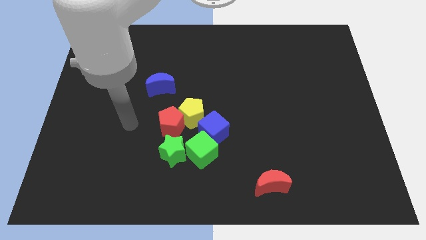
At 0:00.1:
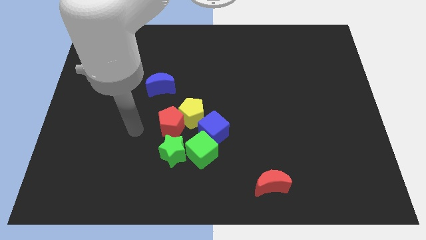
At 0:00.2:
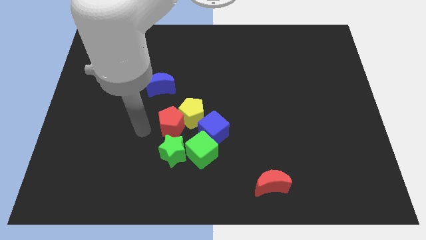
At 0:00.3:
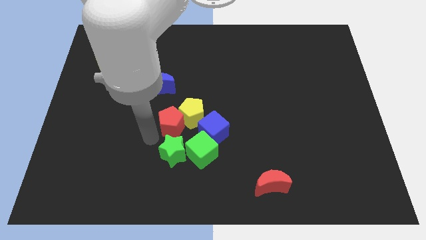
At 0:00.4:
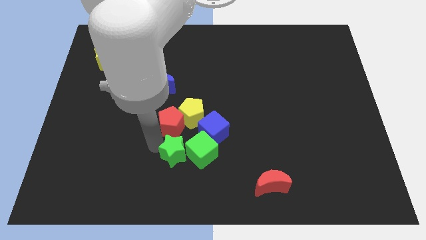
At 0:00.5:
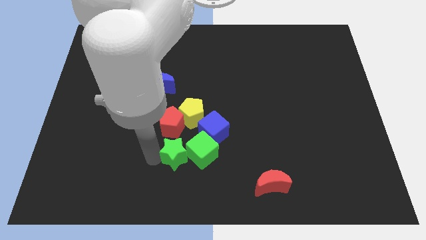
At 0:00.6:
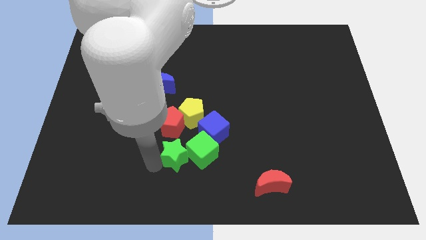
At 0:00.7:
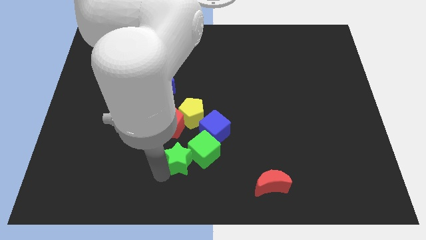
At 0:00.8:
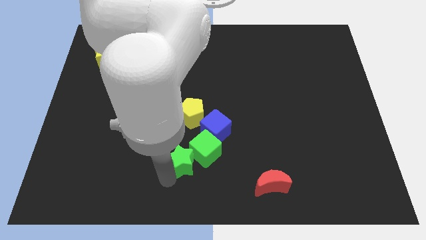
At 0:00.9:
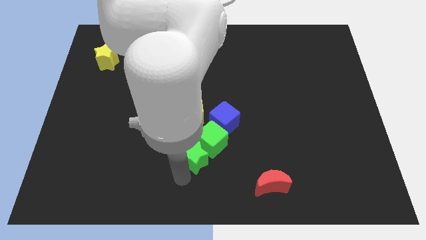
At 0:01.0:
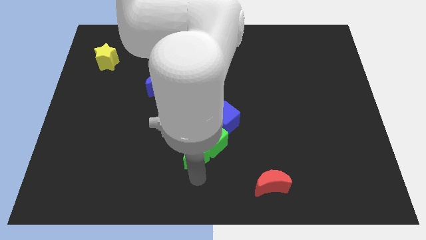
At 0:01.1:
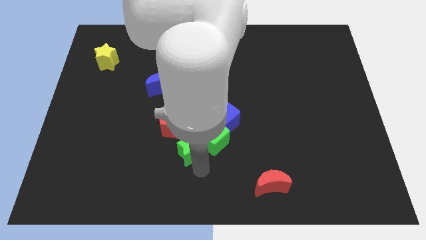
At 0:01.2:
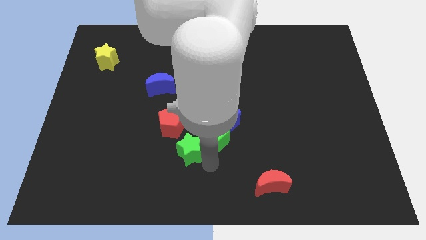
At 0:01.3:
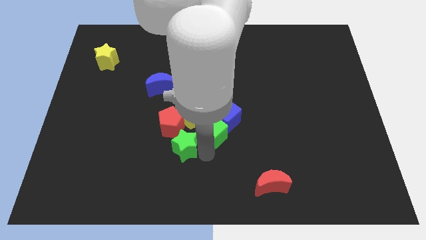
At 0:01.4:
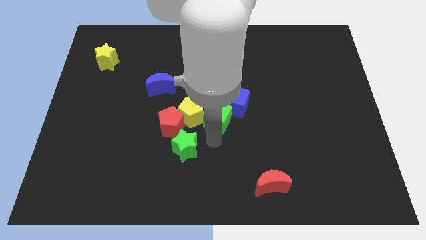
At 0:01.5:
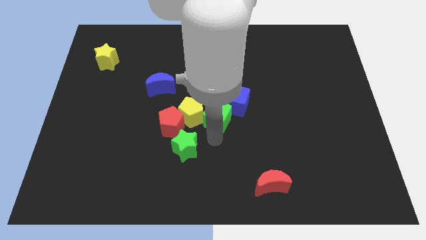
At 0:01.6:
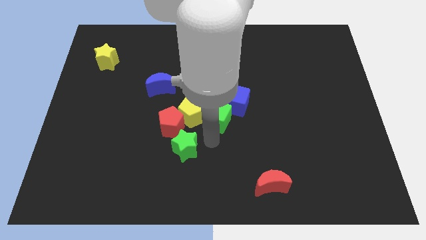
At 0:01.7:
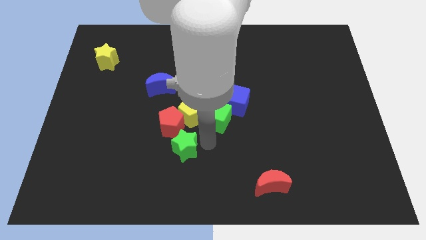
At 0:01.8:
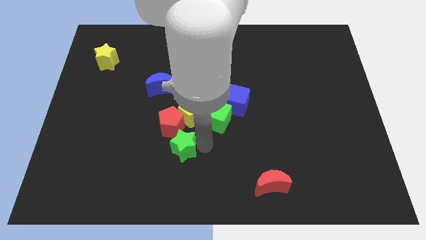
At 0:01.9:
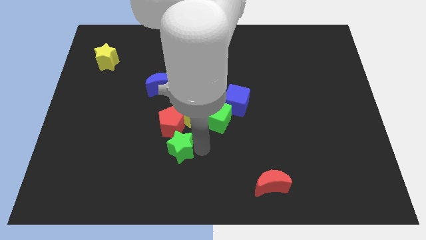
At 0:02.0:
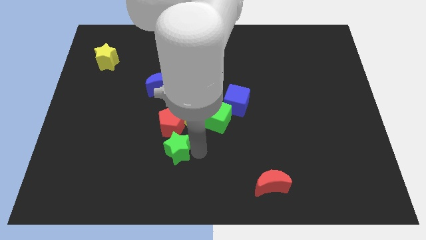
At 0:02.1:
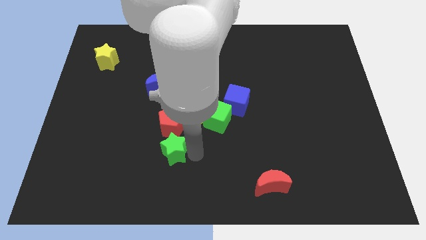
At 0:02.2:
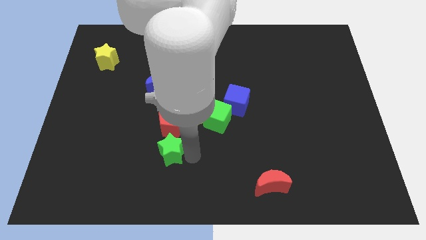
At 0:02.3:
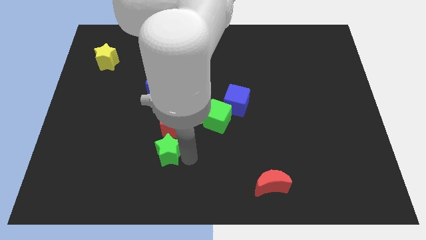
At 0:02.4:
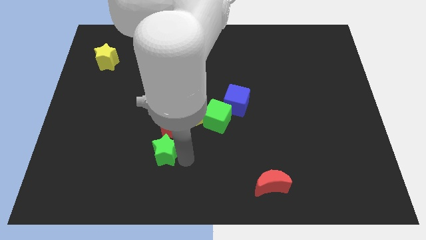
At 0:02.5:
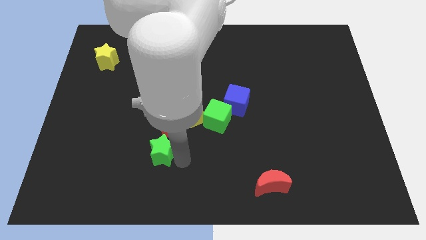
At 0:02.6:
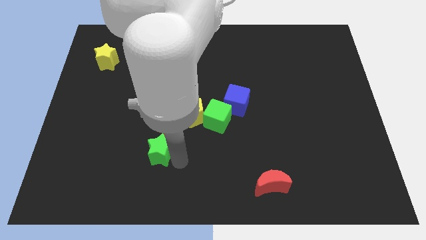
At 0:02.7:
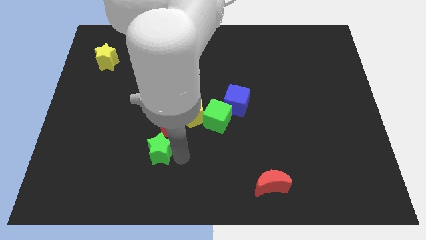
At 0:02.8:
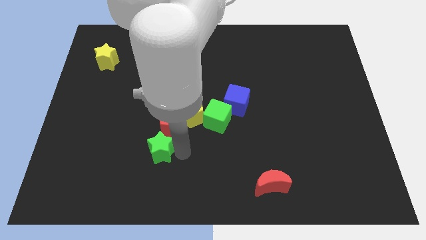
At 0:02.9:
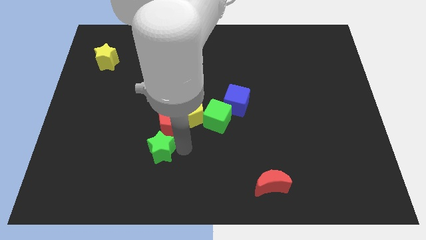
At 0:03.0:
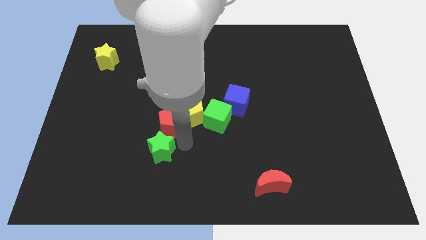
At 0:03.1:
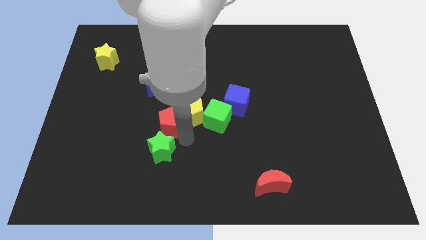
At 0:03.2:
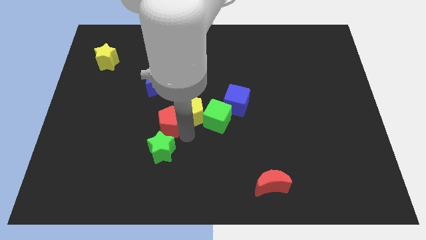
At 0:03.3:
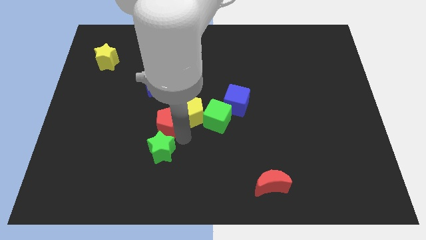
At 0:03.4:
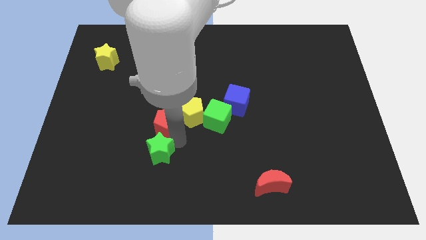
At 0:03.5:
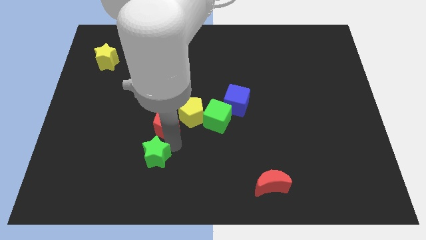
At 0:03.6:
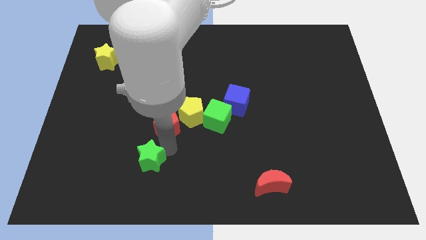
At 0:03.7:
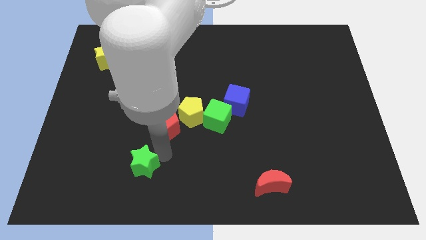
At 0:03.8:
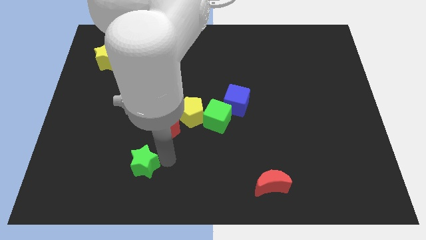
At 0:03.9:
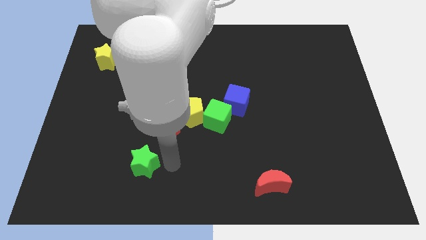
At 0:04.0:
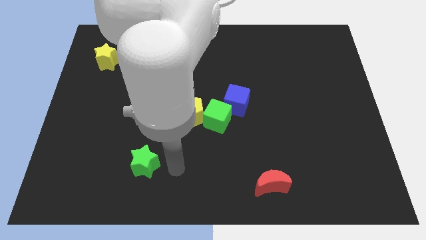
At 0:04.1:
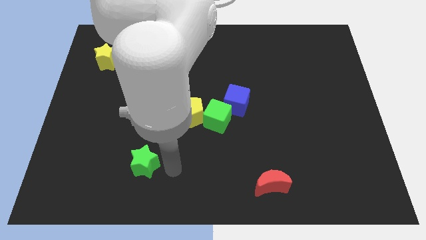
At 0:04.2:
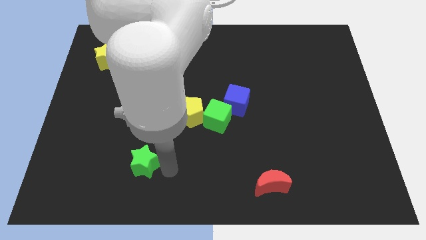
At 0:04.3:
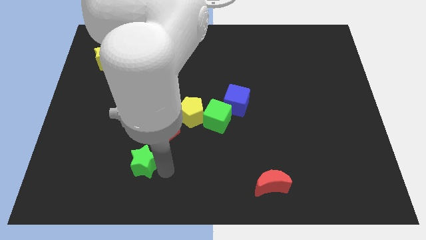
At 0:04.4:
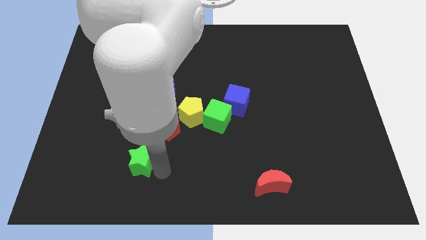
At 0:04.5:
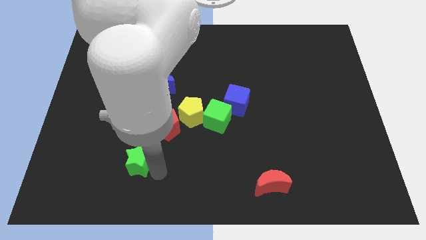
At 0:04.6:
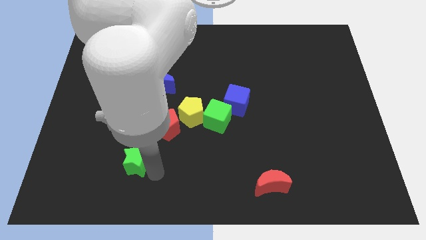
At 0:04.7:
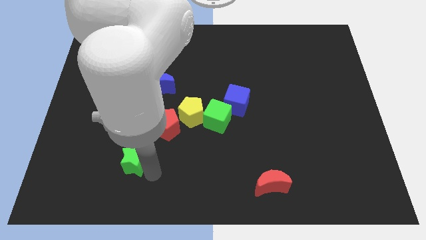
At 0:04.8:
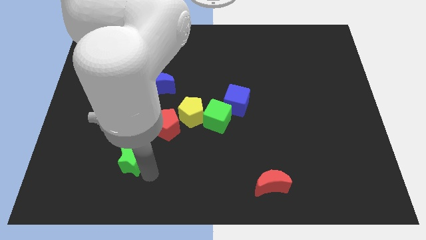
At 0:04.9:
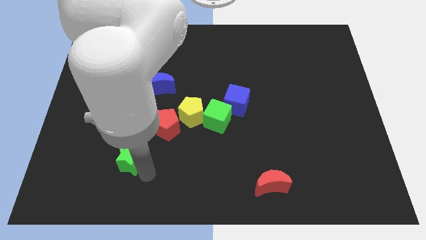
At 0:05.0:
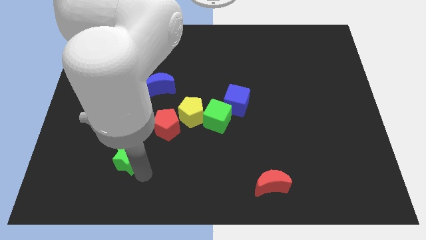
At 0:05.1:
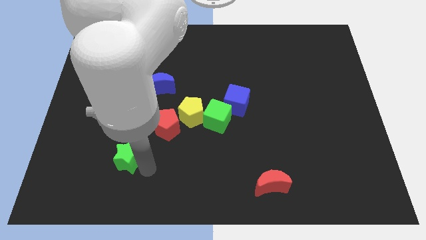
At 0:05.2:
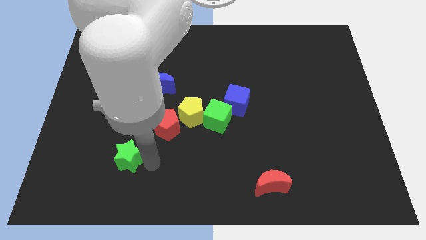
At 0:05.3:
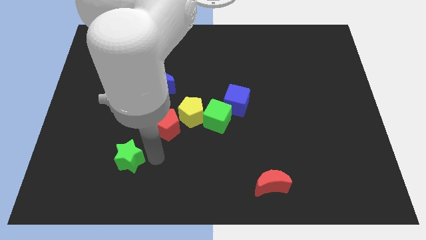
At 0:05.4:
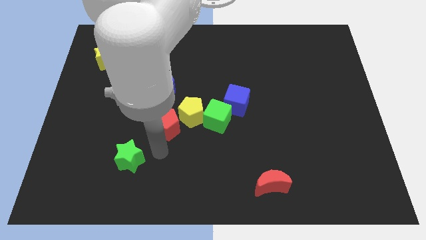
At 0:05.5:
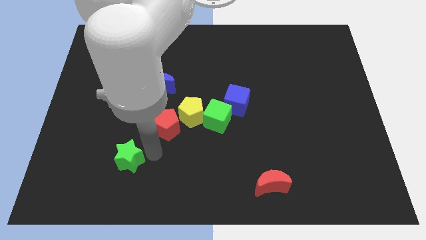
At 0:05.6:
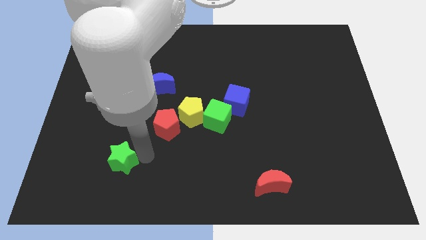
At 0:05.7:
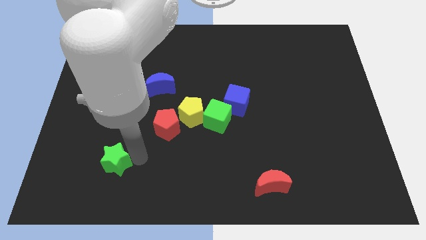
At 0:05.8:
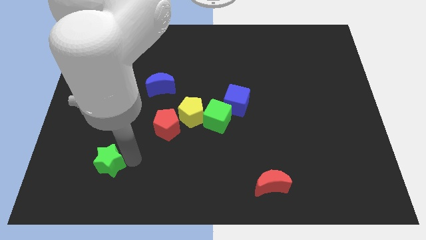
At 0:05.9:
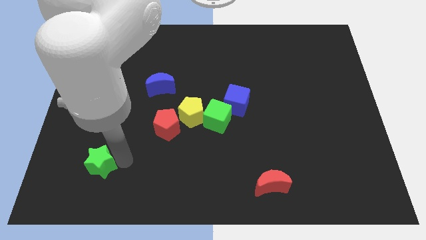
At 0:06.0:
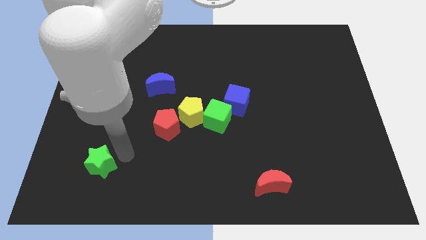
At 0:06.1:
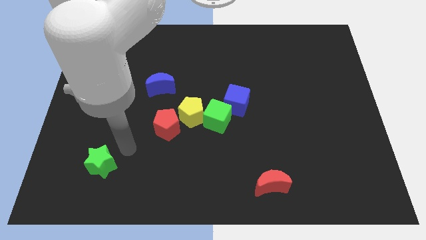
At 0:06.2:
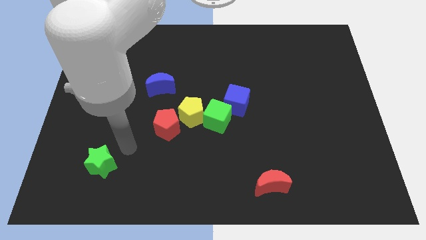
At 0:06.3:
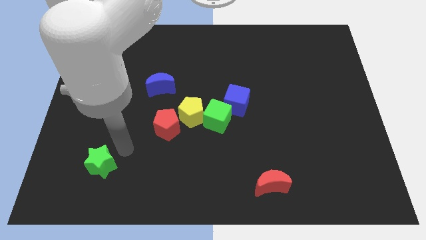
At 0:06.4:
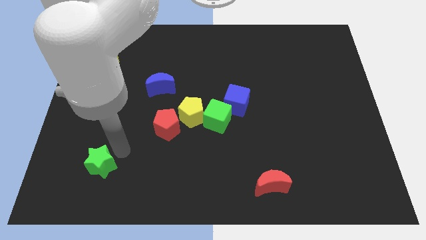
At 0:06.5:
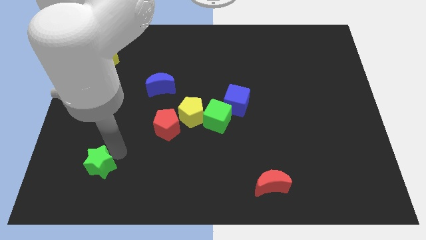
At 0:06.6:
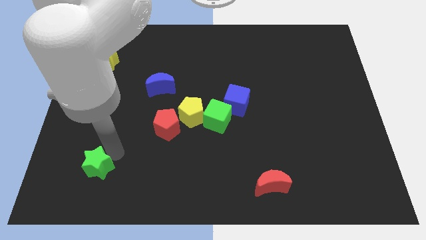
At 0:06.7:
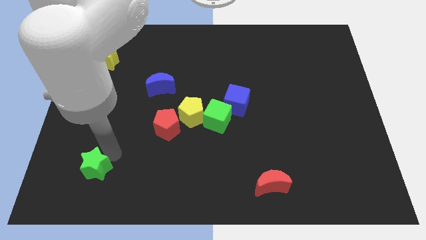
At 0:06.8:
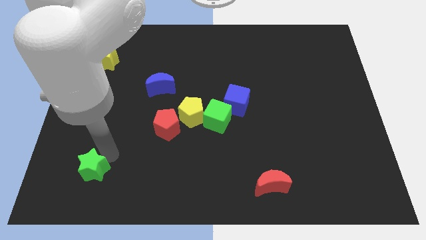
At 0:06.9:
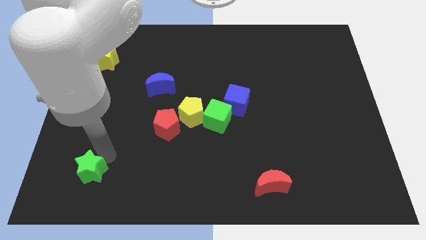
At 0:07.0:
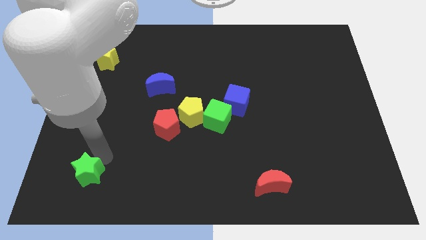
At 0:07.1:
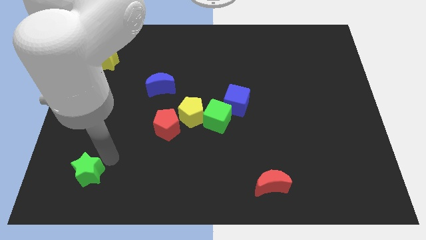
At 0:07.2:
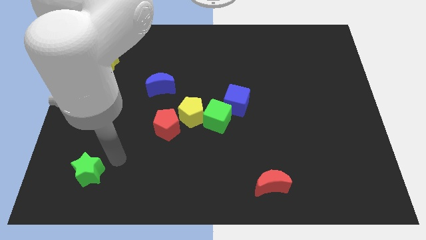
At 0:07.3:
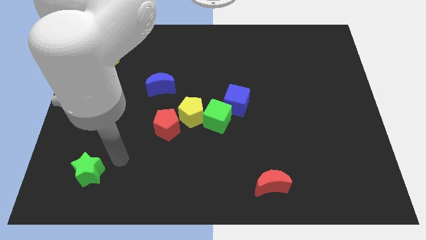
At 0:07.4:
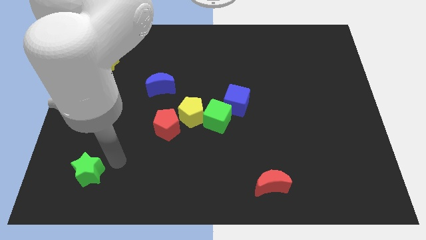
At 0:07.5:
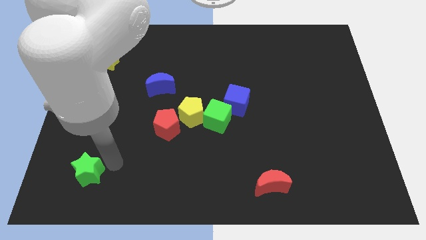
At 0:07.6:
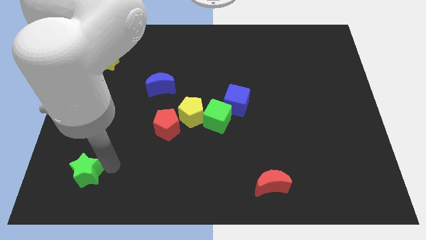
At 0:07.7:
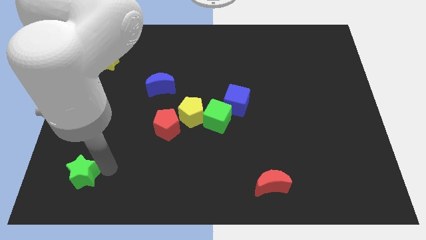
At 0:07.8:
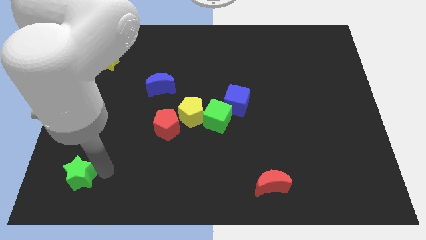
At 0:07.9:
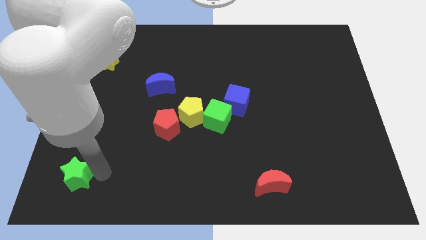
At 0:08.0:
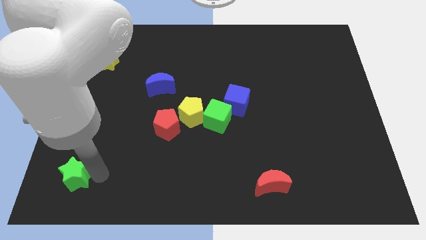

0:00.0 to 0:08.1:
push the green star to the bottom left
